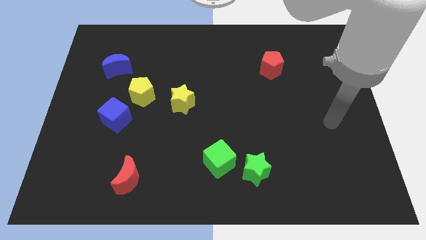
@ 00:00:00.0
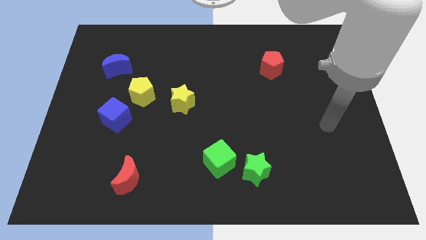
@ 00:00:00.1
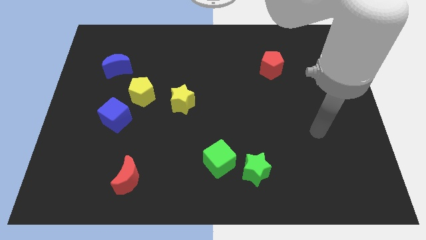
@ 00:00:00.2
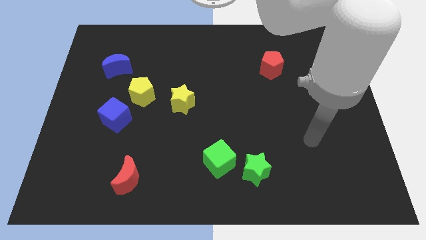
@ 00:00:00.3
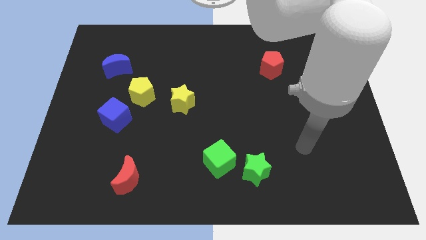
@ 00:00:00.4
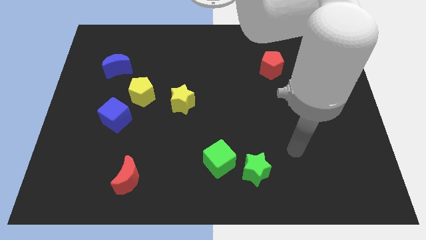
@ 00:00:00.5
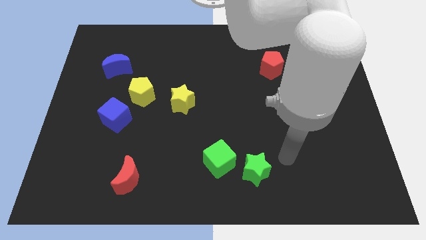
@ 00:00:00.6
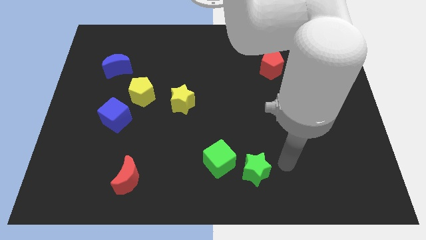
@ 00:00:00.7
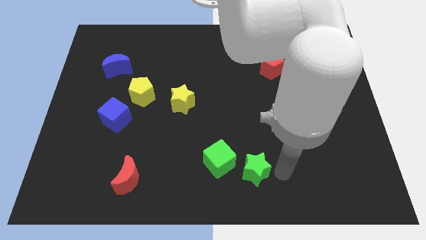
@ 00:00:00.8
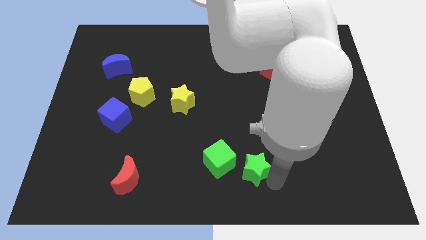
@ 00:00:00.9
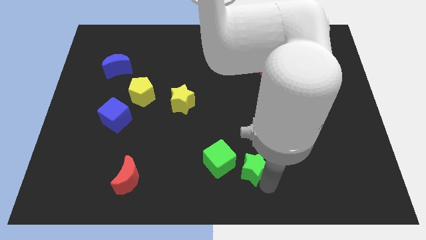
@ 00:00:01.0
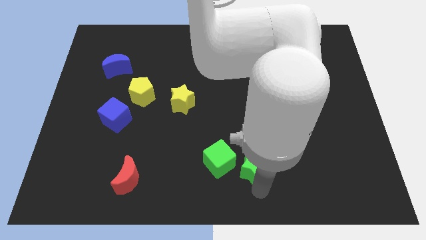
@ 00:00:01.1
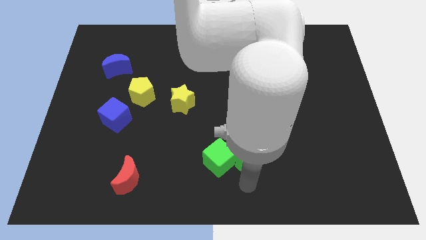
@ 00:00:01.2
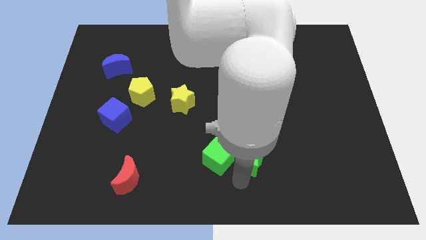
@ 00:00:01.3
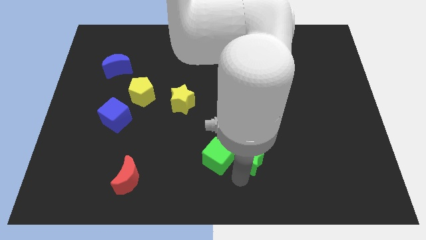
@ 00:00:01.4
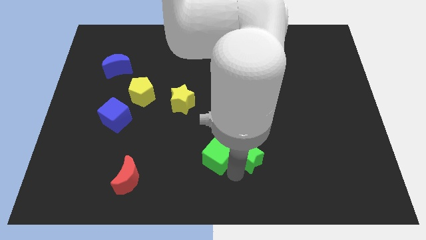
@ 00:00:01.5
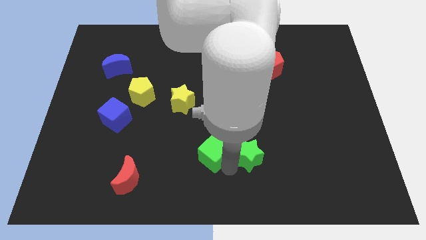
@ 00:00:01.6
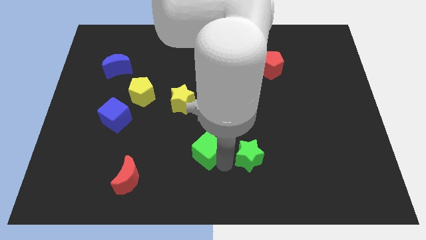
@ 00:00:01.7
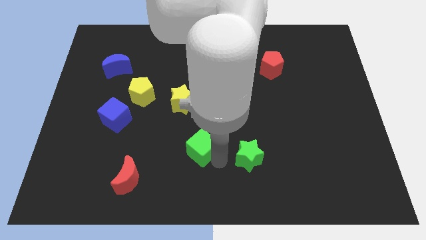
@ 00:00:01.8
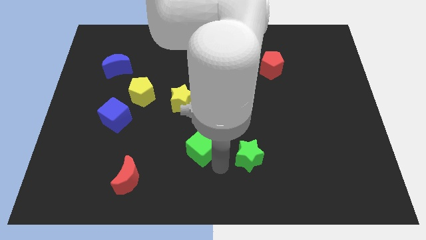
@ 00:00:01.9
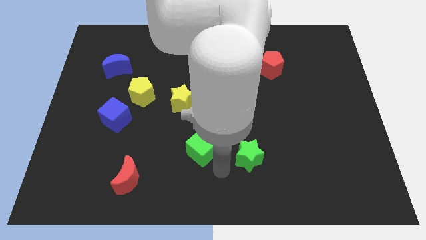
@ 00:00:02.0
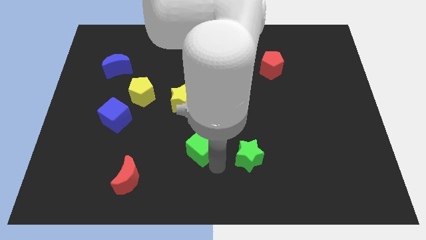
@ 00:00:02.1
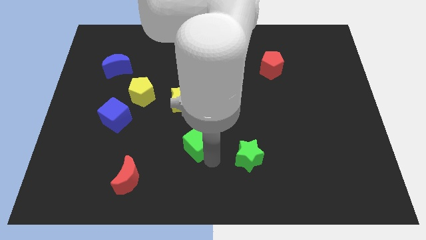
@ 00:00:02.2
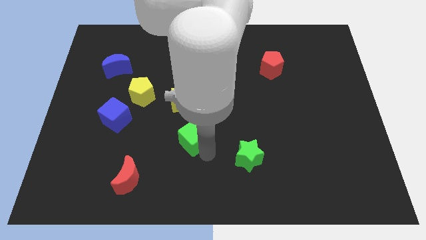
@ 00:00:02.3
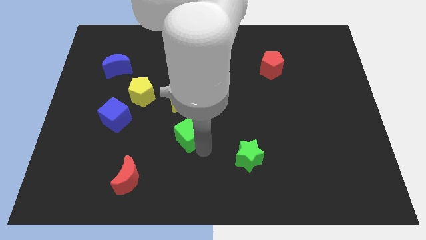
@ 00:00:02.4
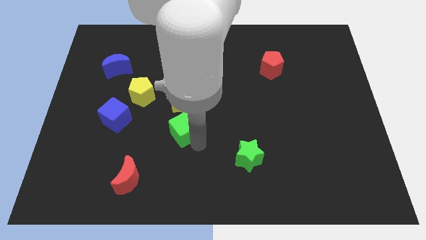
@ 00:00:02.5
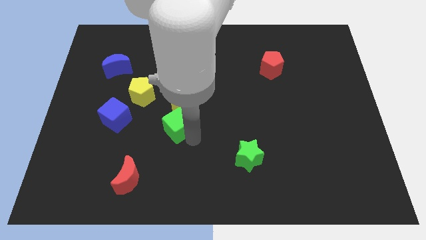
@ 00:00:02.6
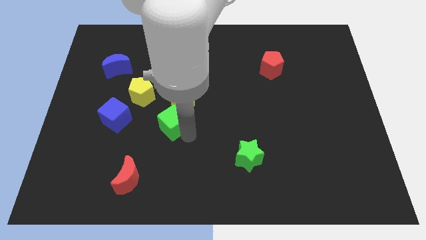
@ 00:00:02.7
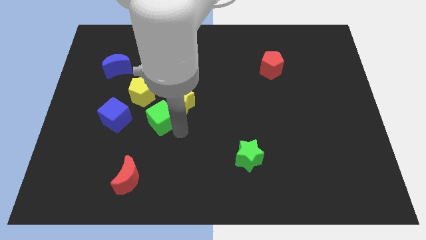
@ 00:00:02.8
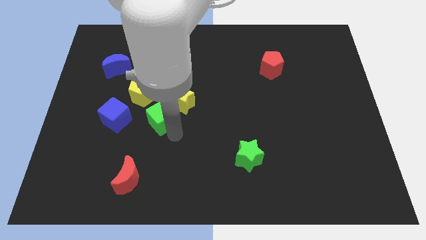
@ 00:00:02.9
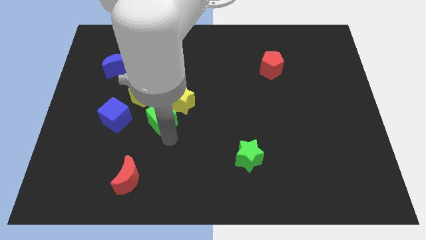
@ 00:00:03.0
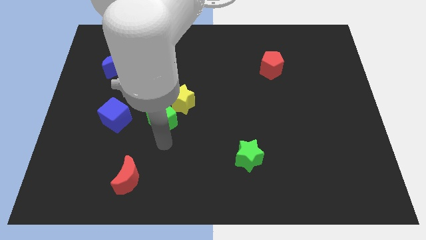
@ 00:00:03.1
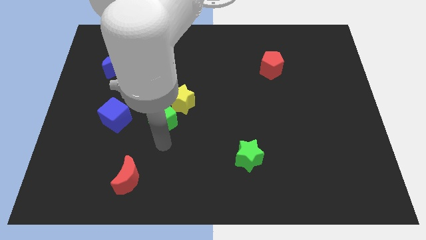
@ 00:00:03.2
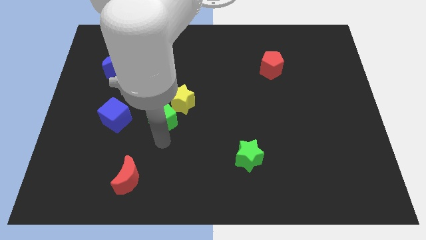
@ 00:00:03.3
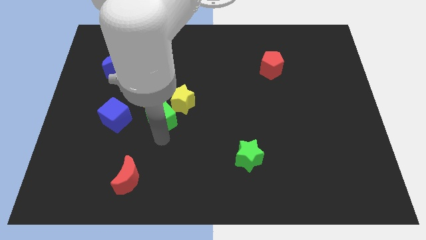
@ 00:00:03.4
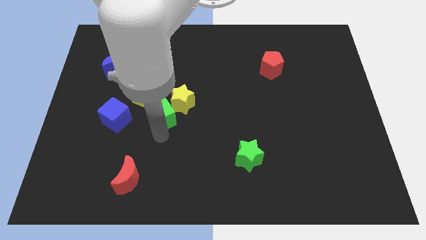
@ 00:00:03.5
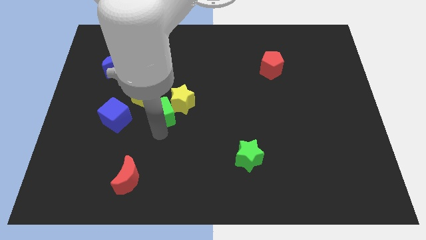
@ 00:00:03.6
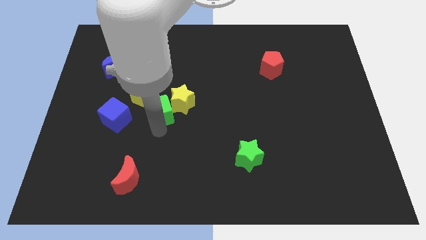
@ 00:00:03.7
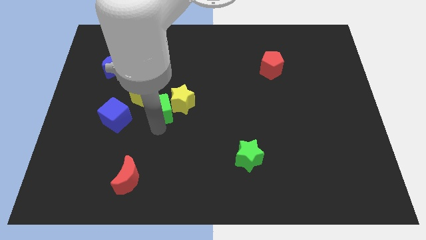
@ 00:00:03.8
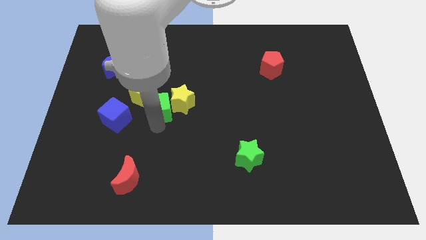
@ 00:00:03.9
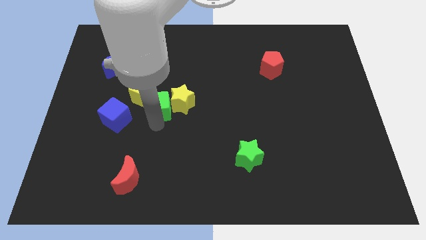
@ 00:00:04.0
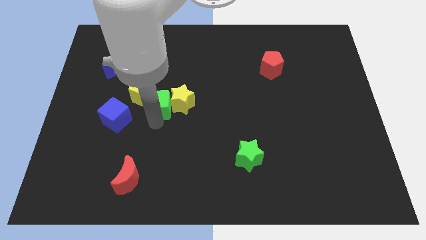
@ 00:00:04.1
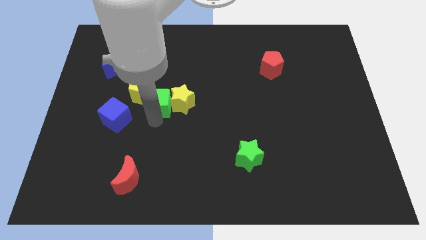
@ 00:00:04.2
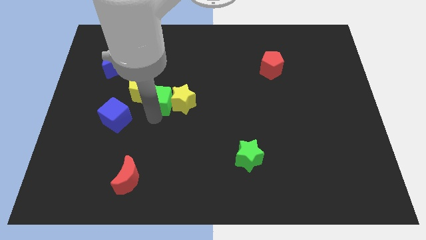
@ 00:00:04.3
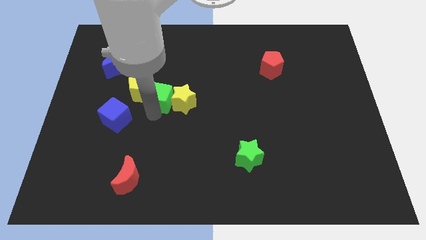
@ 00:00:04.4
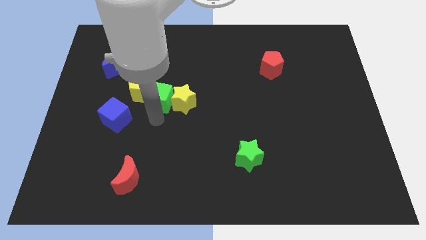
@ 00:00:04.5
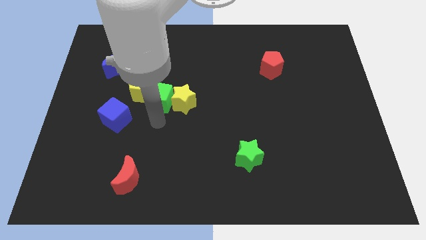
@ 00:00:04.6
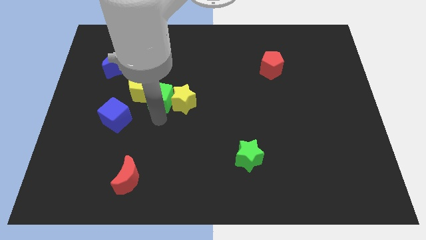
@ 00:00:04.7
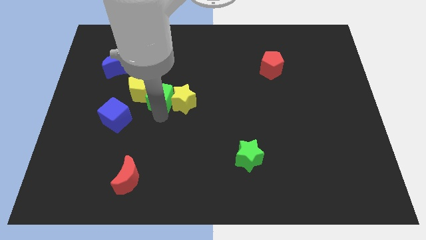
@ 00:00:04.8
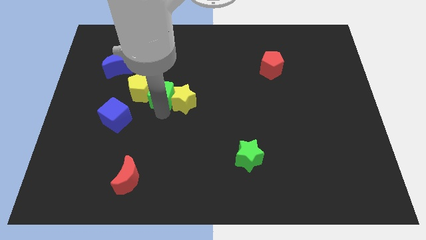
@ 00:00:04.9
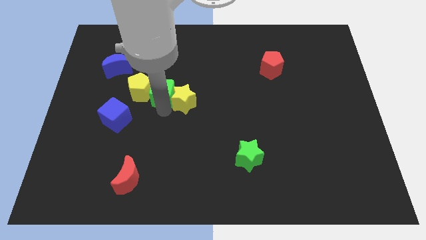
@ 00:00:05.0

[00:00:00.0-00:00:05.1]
put the green cube to the top right side of the yellow pentagon

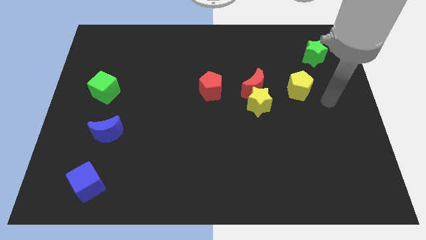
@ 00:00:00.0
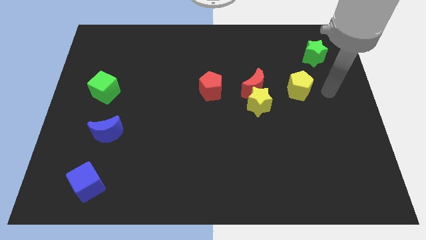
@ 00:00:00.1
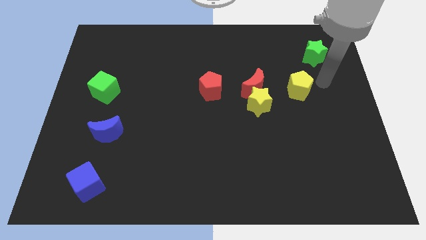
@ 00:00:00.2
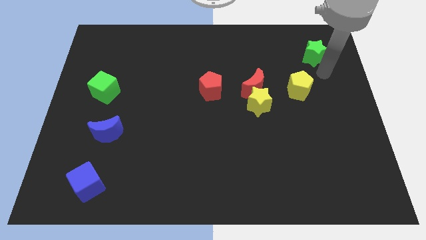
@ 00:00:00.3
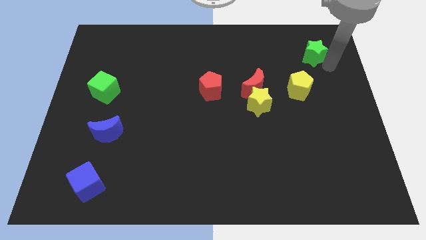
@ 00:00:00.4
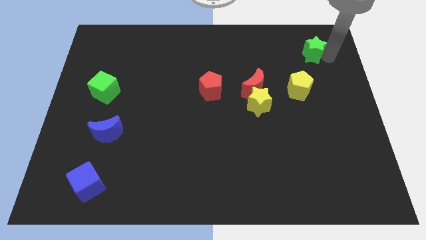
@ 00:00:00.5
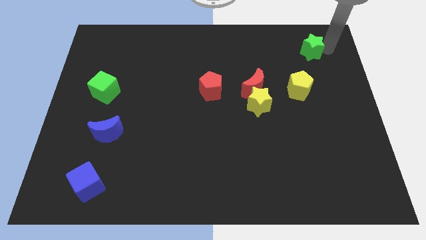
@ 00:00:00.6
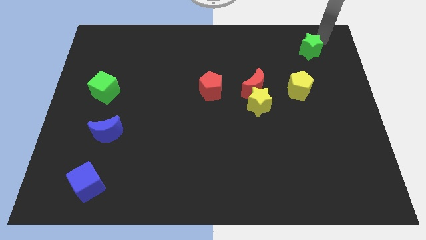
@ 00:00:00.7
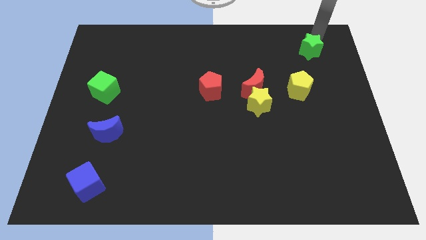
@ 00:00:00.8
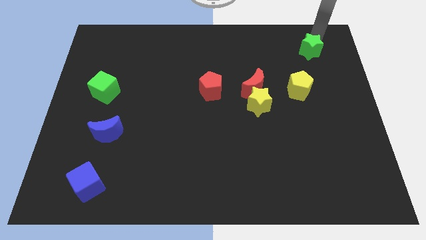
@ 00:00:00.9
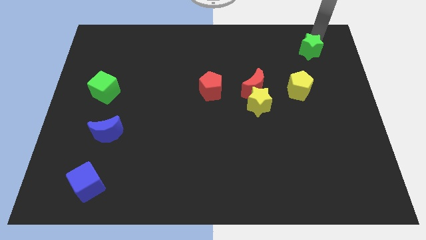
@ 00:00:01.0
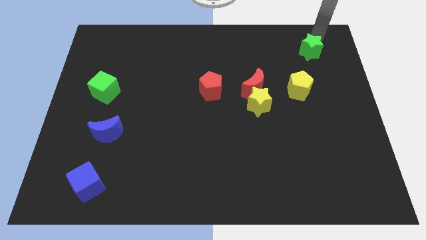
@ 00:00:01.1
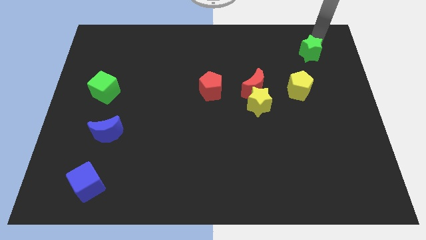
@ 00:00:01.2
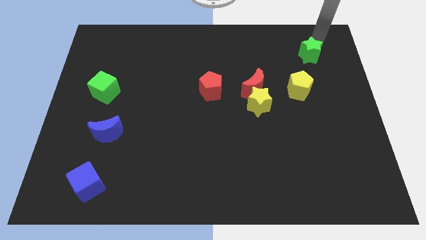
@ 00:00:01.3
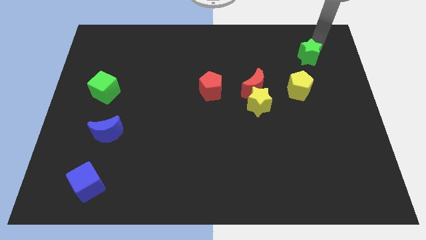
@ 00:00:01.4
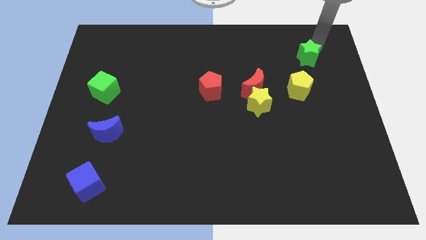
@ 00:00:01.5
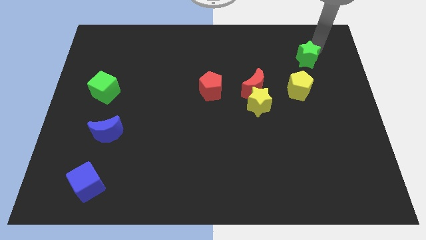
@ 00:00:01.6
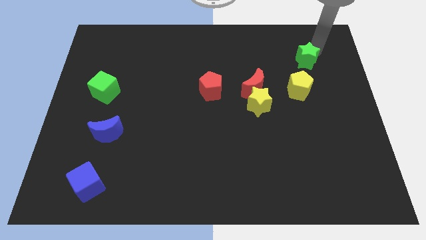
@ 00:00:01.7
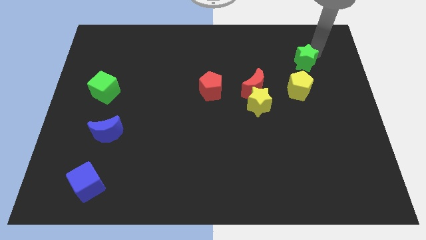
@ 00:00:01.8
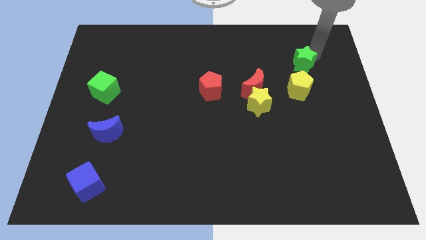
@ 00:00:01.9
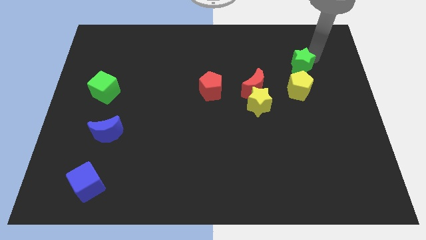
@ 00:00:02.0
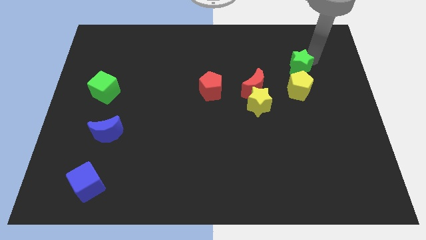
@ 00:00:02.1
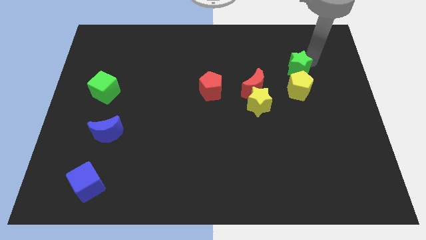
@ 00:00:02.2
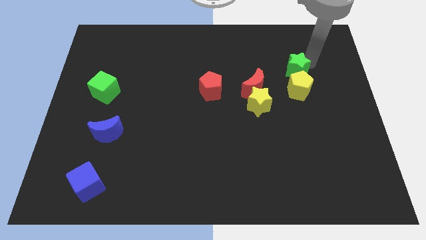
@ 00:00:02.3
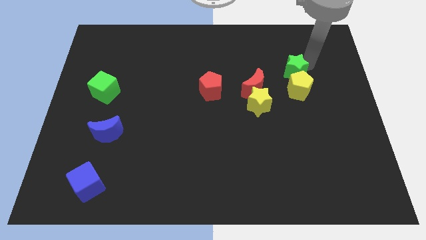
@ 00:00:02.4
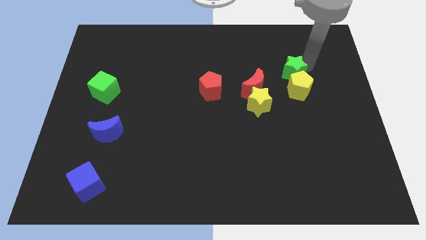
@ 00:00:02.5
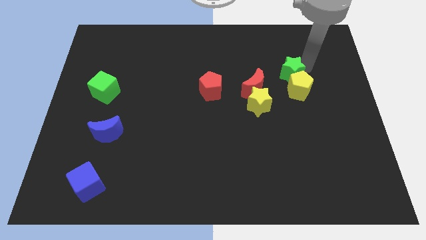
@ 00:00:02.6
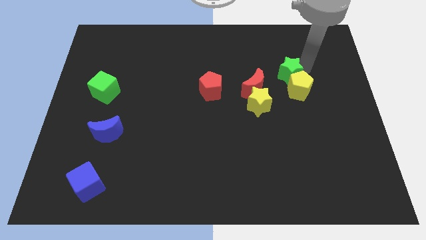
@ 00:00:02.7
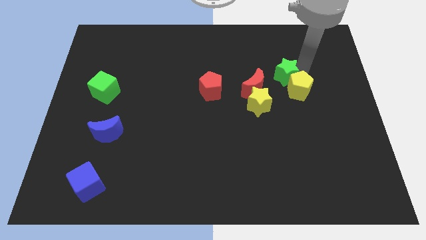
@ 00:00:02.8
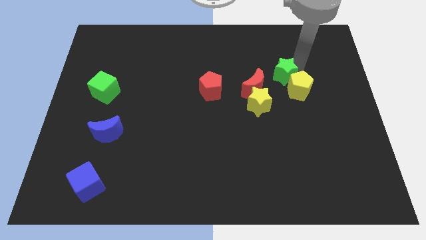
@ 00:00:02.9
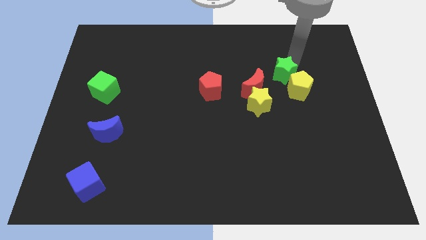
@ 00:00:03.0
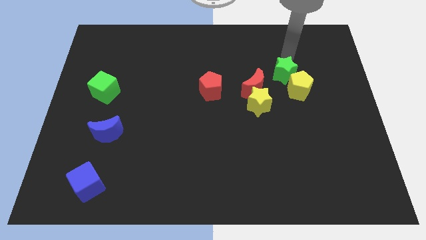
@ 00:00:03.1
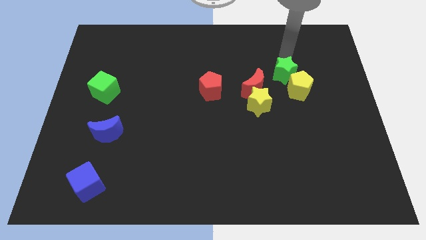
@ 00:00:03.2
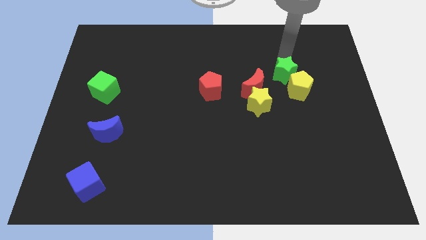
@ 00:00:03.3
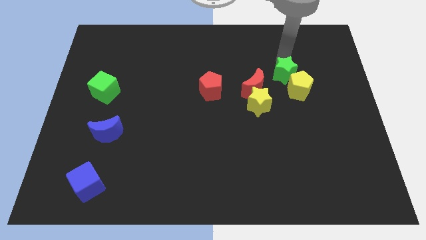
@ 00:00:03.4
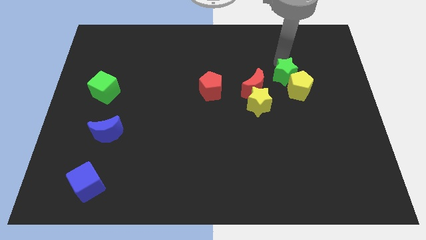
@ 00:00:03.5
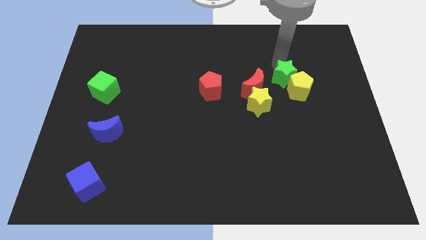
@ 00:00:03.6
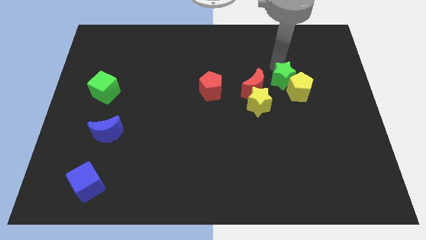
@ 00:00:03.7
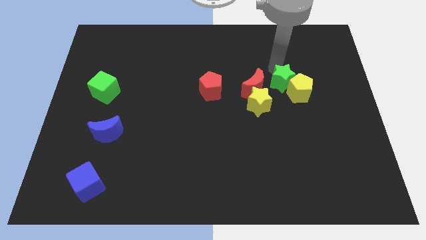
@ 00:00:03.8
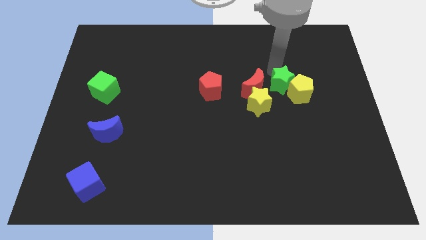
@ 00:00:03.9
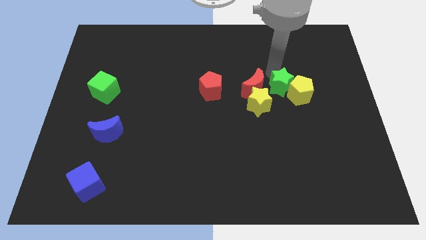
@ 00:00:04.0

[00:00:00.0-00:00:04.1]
slide the green star to the bottom right of the red moon
